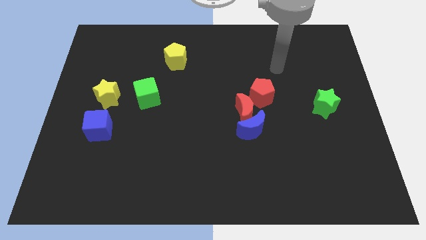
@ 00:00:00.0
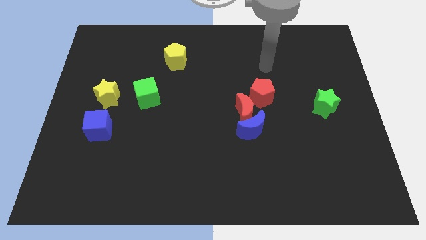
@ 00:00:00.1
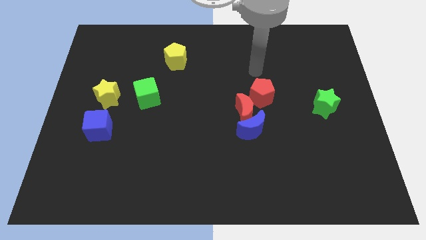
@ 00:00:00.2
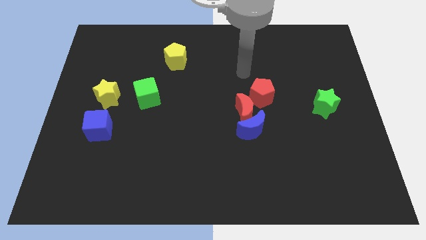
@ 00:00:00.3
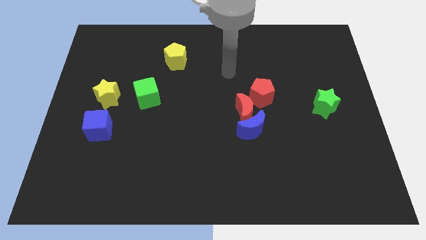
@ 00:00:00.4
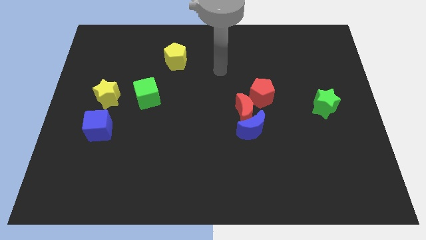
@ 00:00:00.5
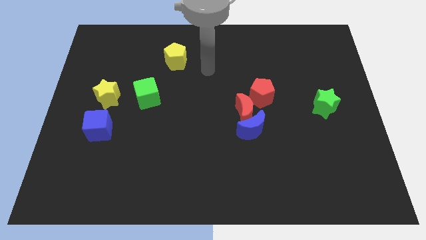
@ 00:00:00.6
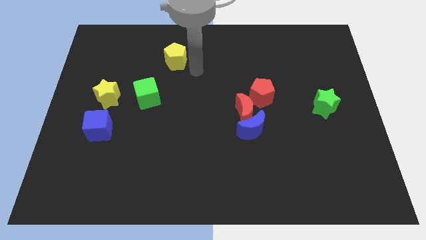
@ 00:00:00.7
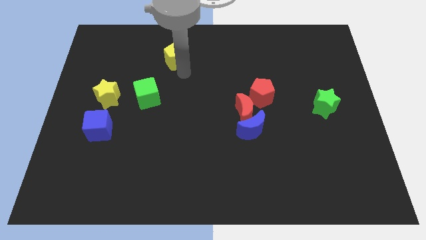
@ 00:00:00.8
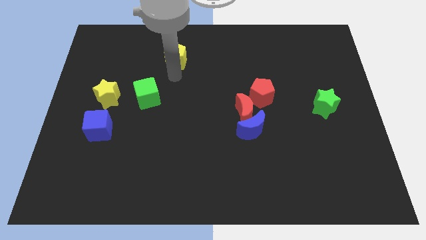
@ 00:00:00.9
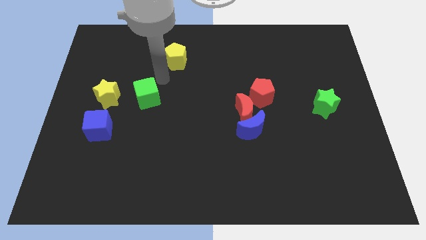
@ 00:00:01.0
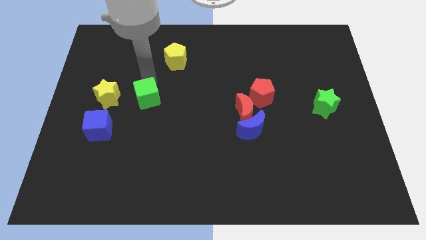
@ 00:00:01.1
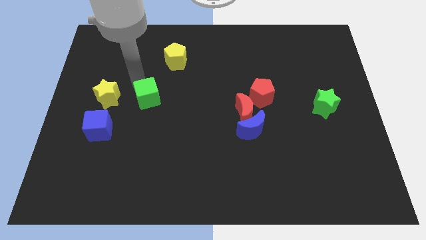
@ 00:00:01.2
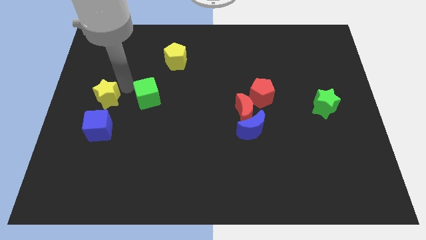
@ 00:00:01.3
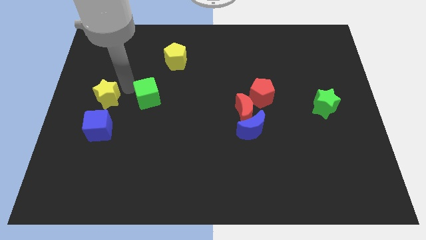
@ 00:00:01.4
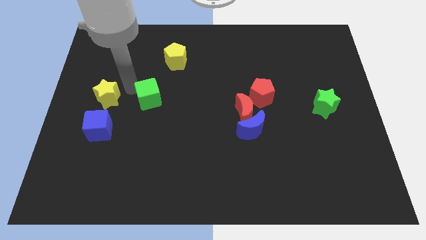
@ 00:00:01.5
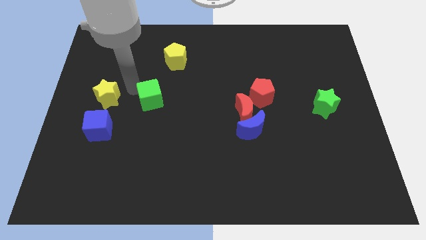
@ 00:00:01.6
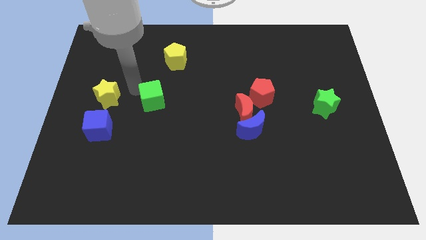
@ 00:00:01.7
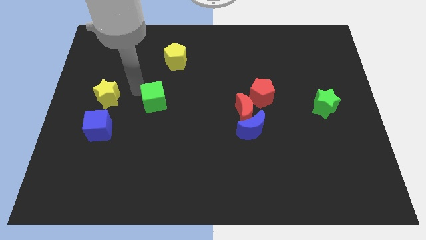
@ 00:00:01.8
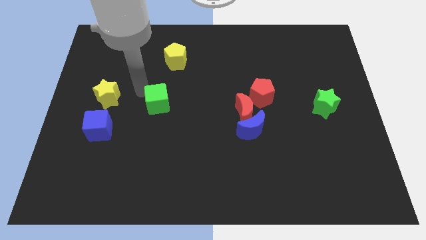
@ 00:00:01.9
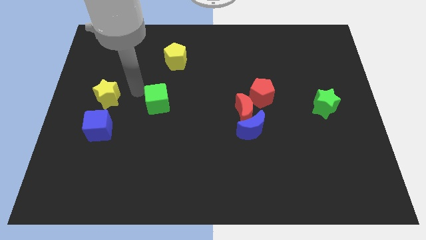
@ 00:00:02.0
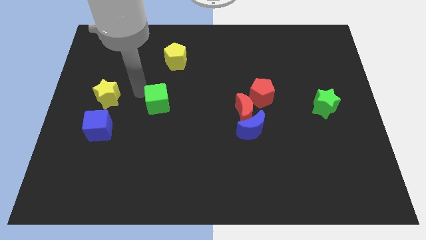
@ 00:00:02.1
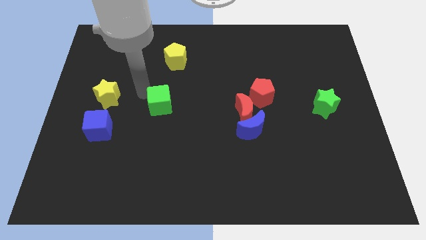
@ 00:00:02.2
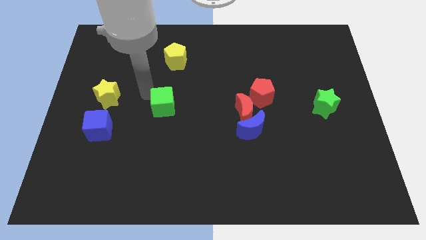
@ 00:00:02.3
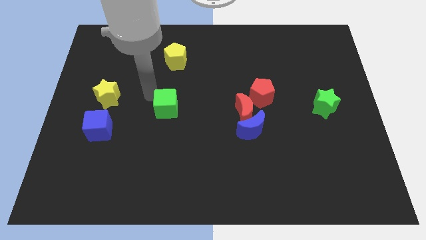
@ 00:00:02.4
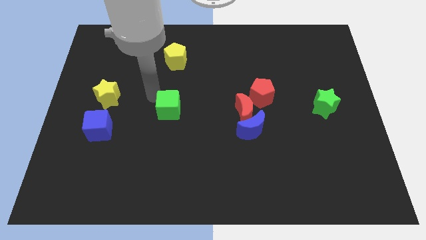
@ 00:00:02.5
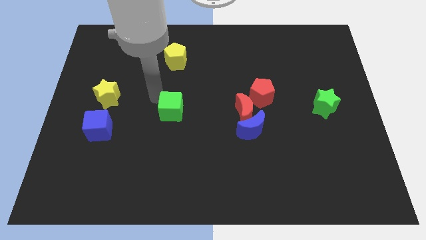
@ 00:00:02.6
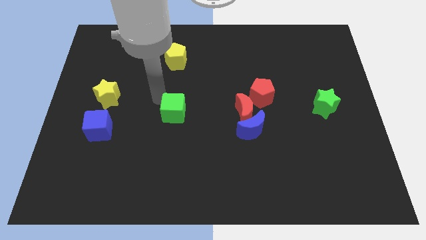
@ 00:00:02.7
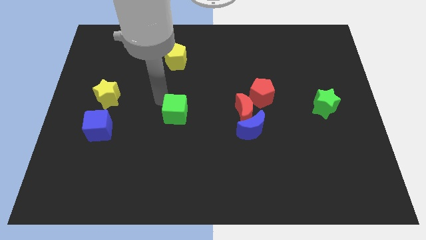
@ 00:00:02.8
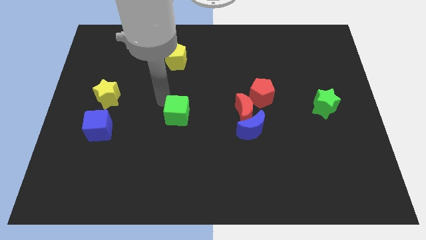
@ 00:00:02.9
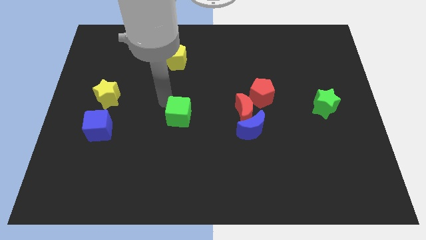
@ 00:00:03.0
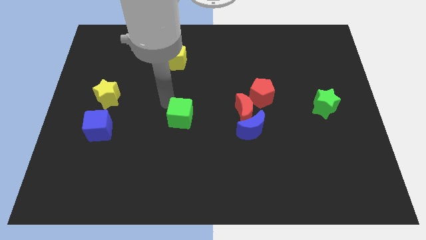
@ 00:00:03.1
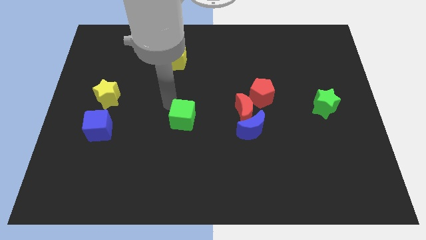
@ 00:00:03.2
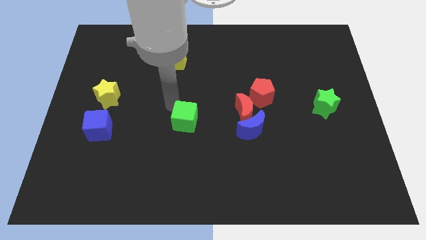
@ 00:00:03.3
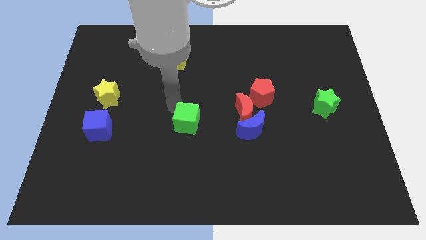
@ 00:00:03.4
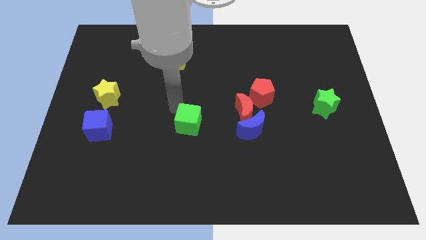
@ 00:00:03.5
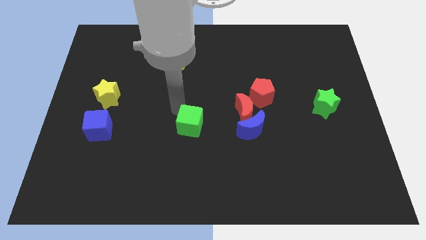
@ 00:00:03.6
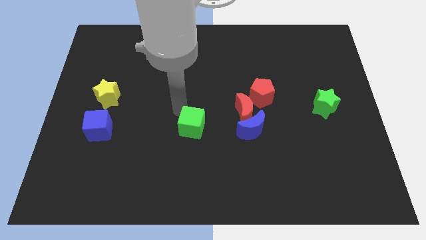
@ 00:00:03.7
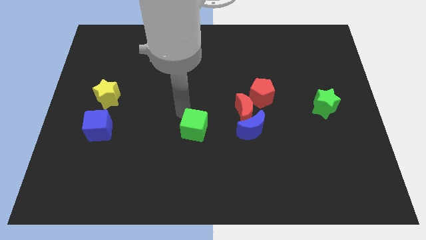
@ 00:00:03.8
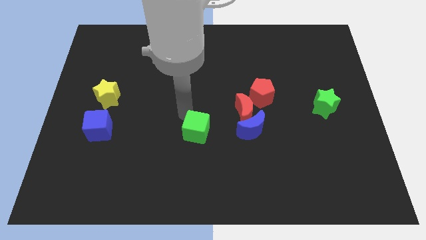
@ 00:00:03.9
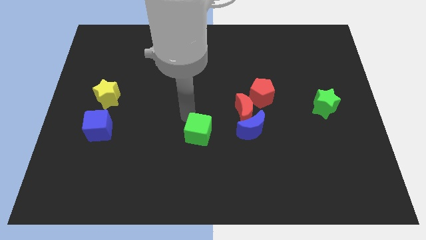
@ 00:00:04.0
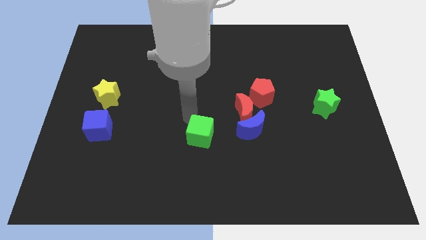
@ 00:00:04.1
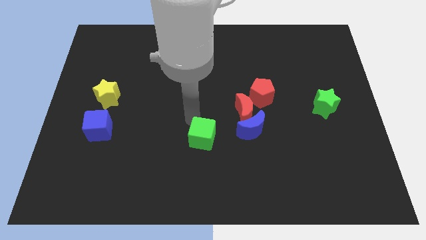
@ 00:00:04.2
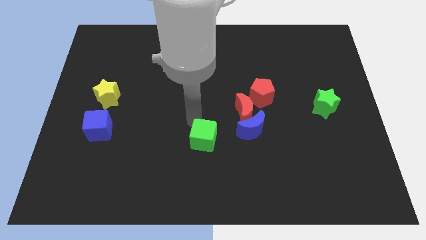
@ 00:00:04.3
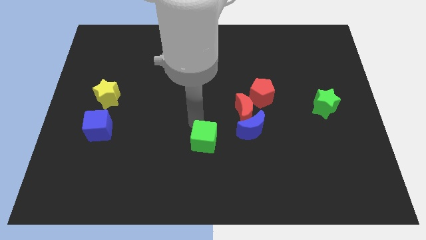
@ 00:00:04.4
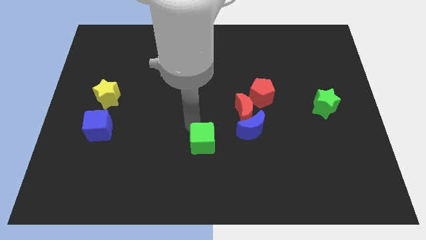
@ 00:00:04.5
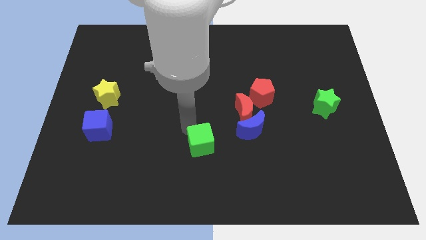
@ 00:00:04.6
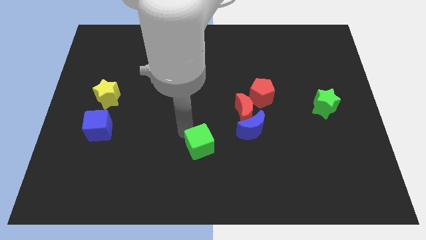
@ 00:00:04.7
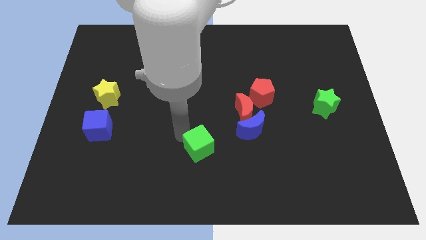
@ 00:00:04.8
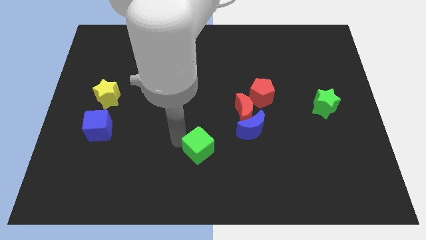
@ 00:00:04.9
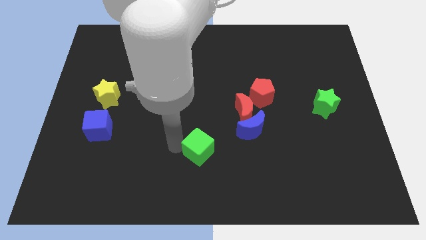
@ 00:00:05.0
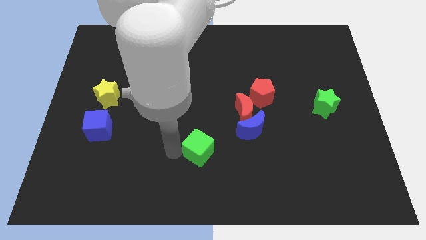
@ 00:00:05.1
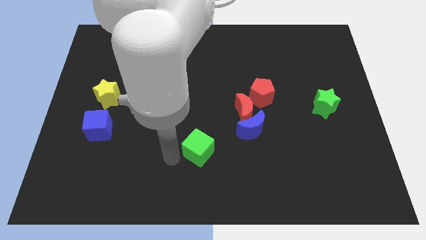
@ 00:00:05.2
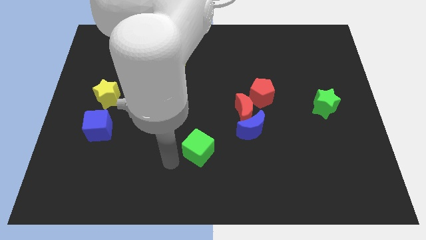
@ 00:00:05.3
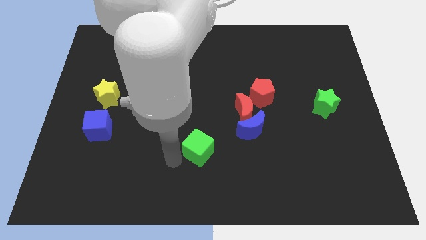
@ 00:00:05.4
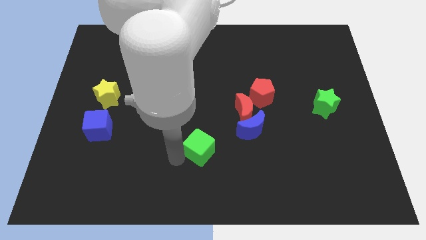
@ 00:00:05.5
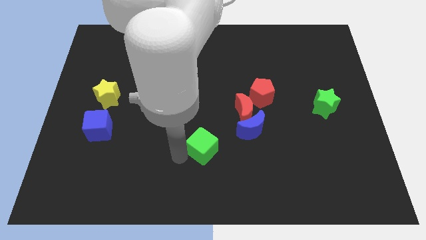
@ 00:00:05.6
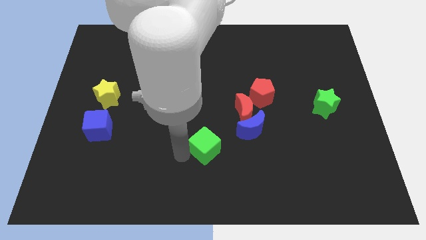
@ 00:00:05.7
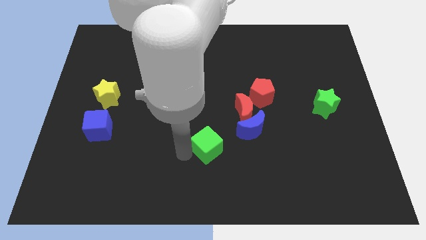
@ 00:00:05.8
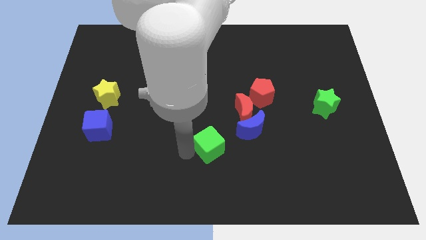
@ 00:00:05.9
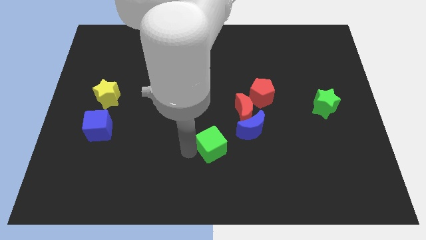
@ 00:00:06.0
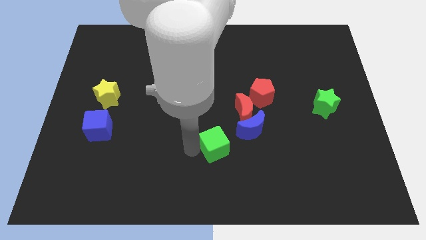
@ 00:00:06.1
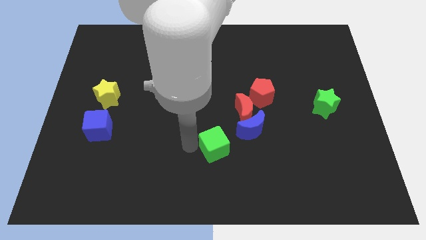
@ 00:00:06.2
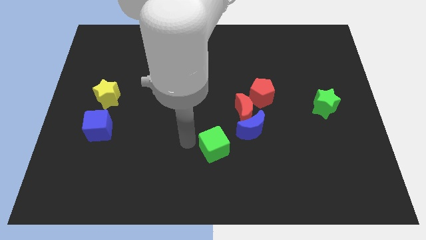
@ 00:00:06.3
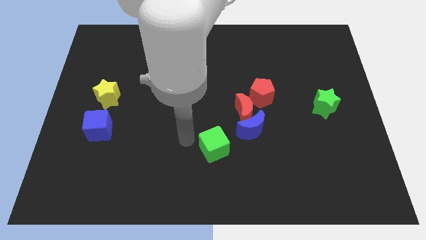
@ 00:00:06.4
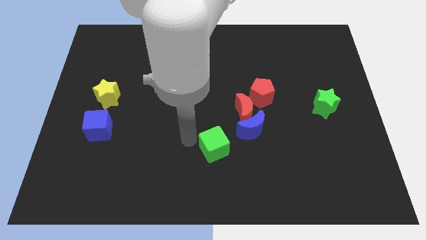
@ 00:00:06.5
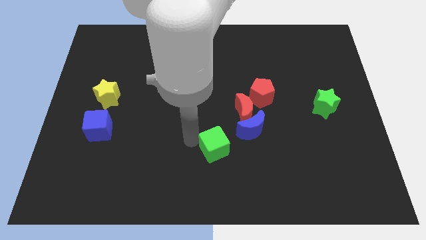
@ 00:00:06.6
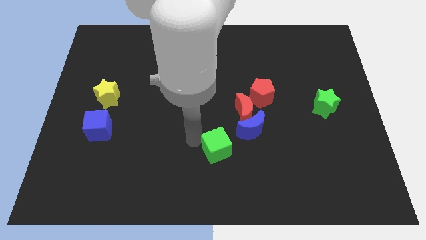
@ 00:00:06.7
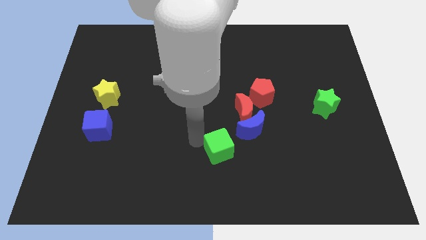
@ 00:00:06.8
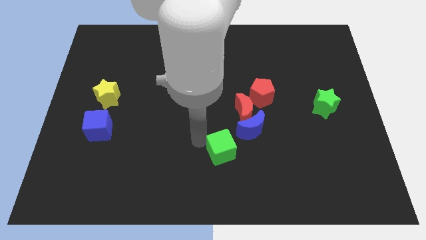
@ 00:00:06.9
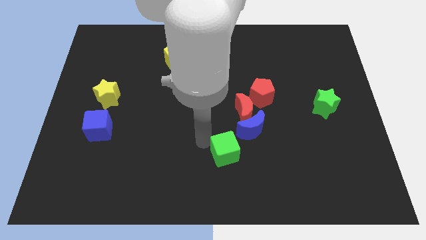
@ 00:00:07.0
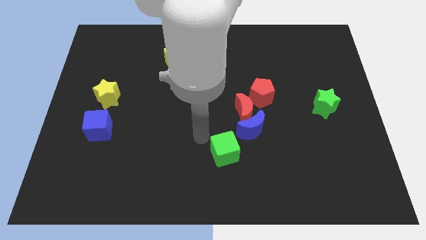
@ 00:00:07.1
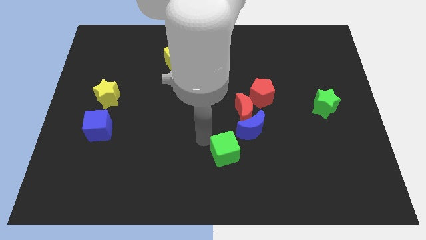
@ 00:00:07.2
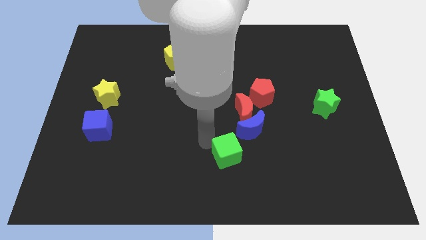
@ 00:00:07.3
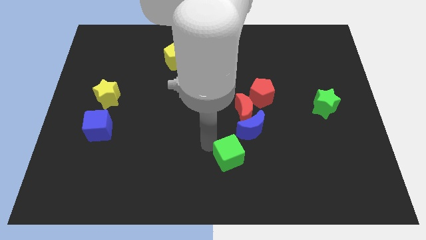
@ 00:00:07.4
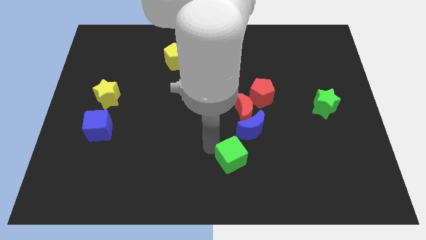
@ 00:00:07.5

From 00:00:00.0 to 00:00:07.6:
slide the green cube below the blue moon
